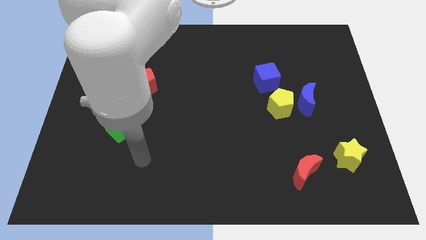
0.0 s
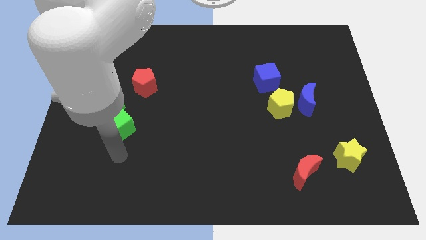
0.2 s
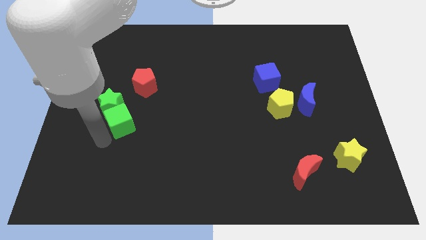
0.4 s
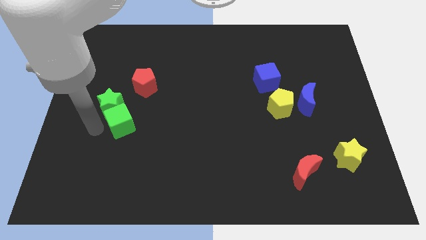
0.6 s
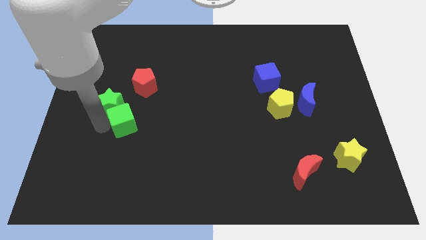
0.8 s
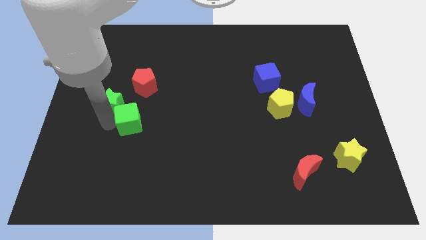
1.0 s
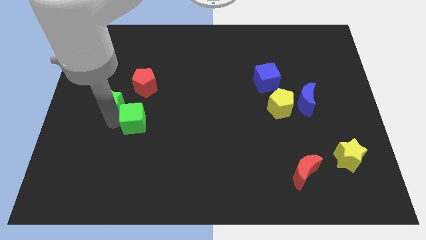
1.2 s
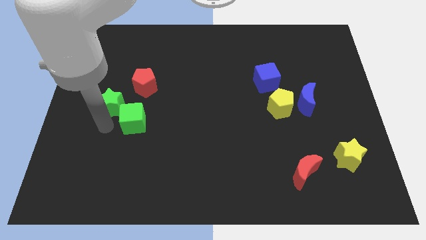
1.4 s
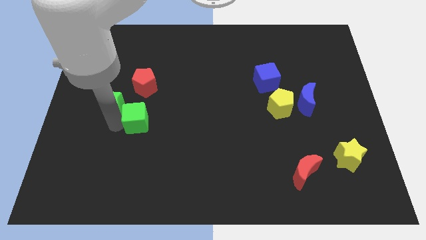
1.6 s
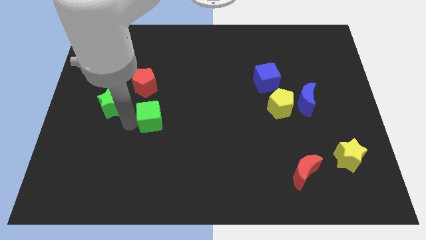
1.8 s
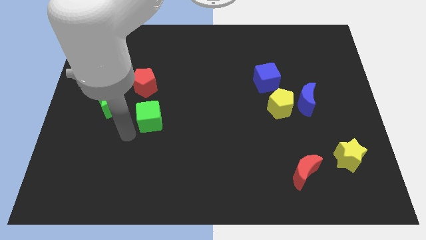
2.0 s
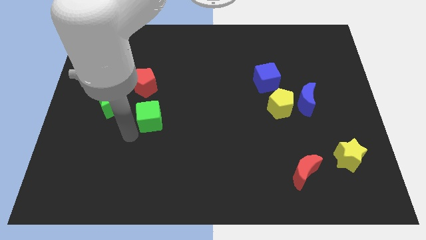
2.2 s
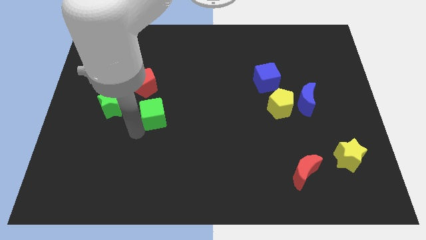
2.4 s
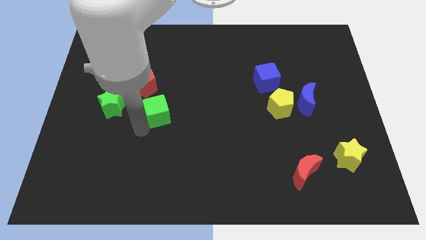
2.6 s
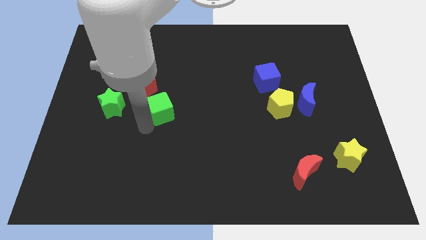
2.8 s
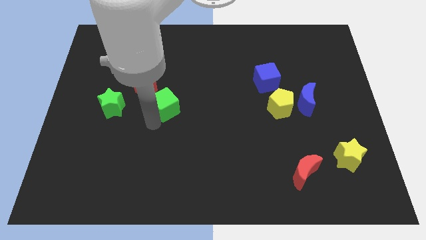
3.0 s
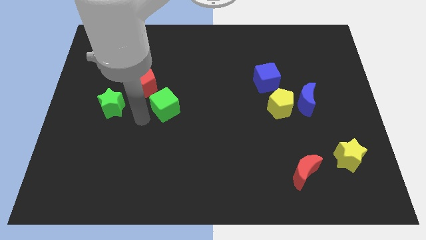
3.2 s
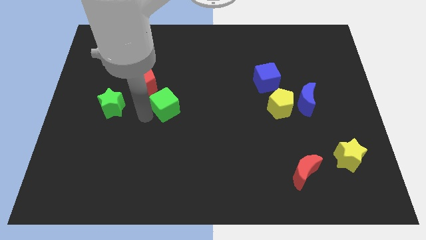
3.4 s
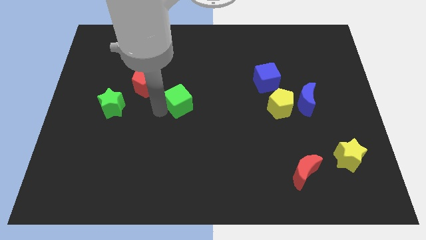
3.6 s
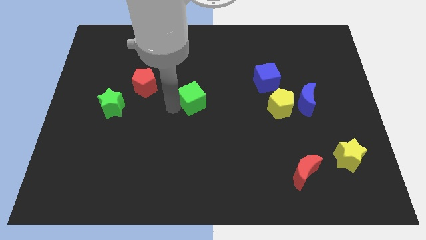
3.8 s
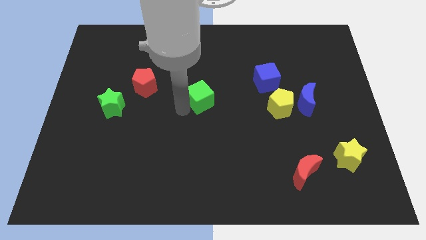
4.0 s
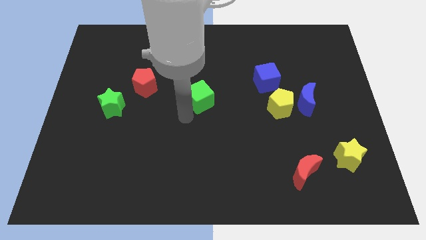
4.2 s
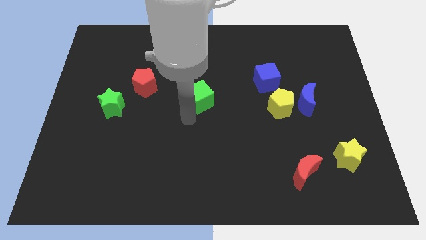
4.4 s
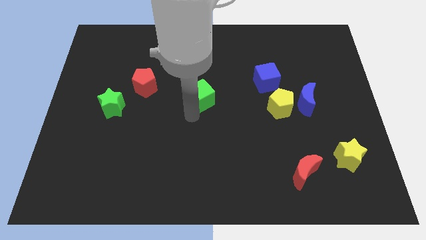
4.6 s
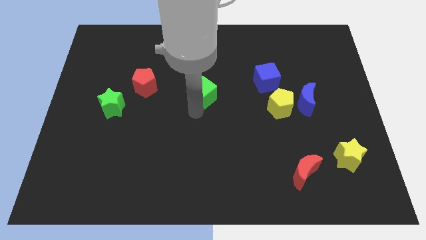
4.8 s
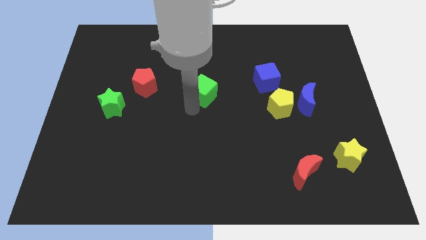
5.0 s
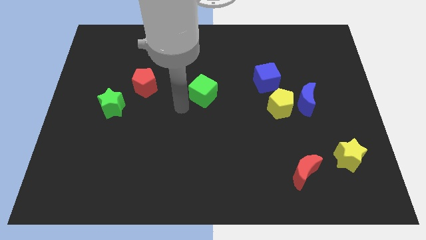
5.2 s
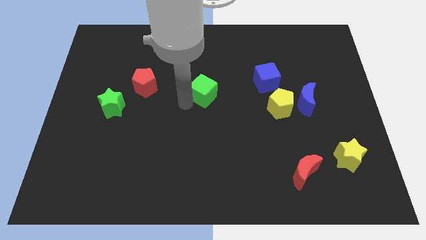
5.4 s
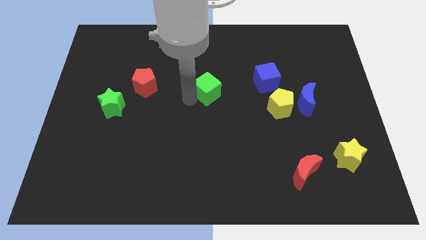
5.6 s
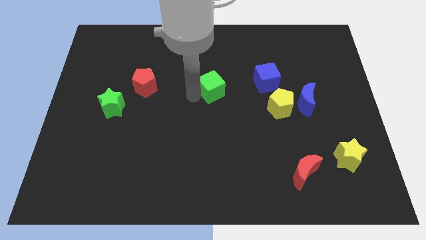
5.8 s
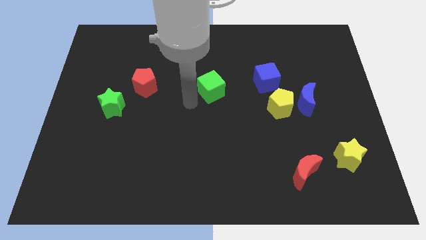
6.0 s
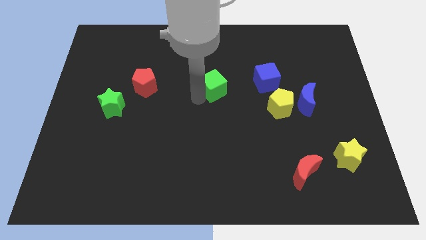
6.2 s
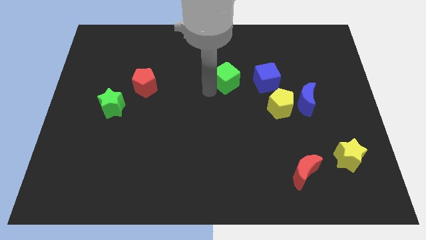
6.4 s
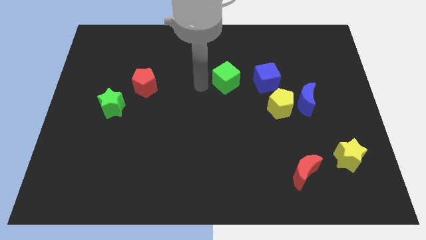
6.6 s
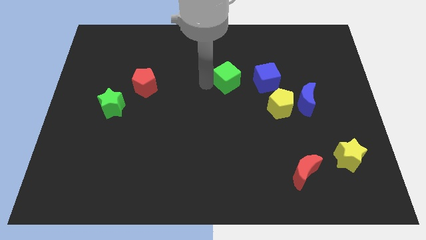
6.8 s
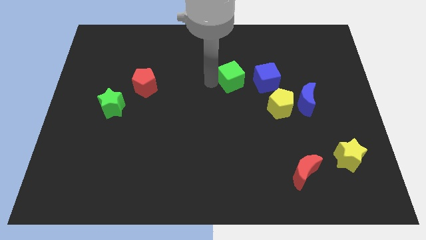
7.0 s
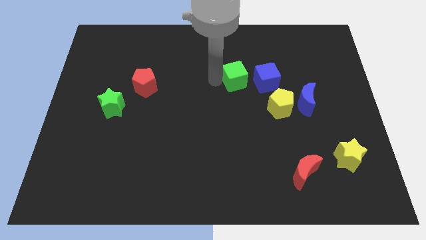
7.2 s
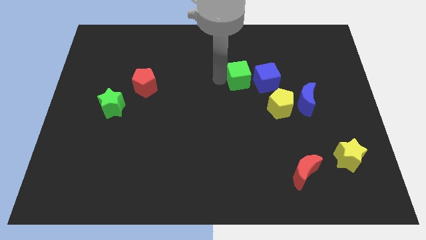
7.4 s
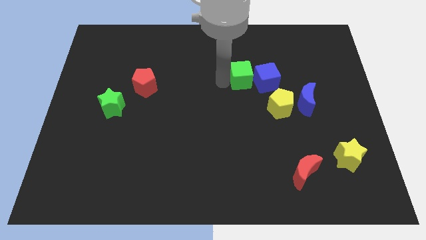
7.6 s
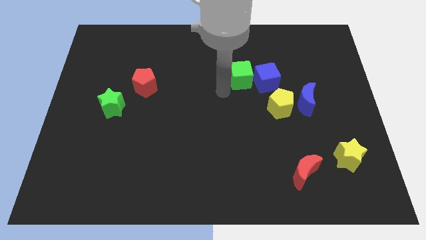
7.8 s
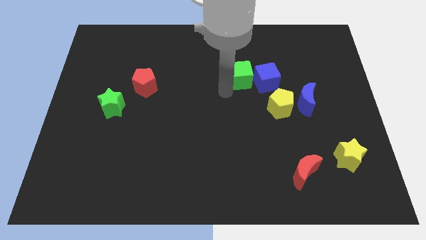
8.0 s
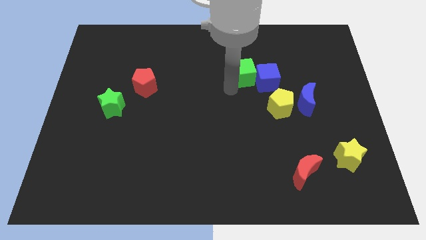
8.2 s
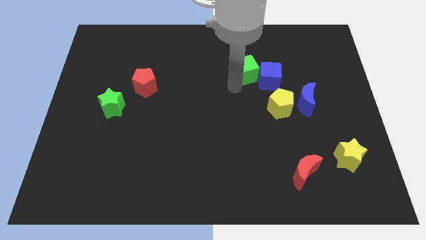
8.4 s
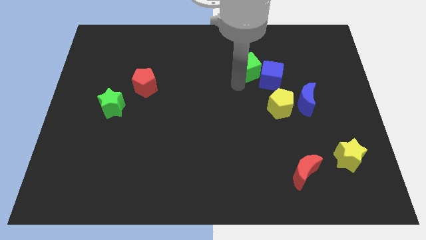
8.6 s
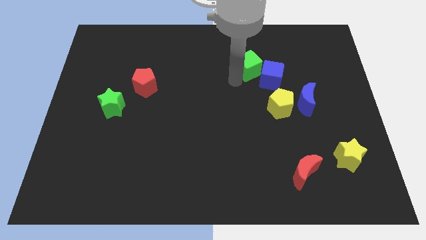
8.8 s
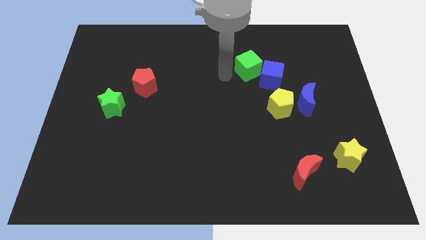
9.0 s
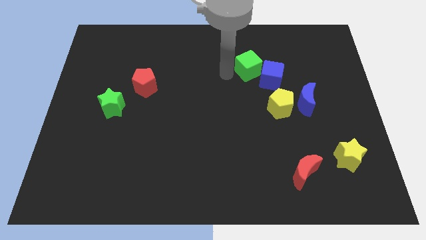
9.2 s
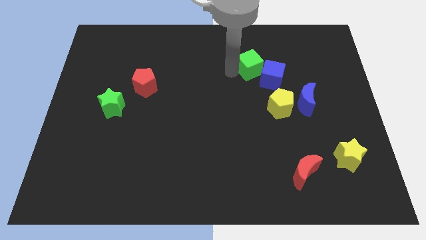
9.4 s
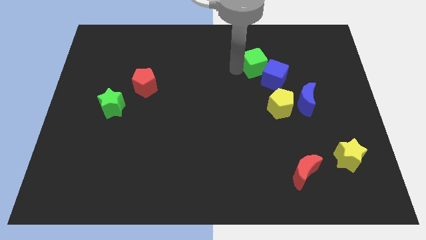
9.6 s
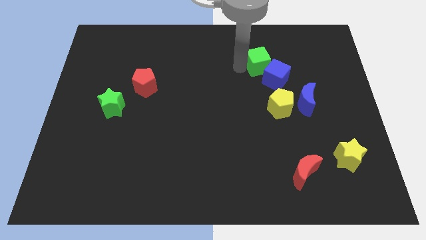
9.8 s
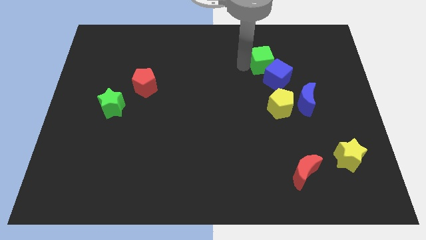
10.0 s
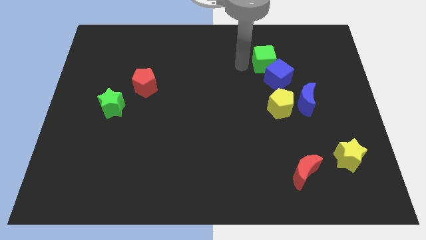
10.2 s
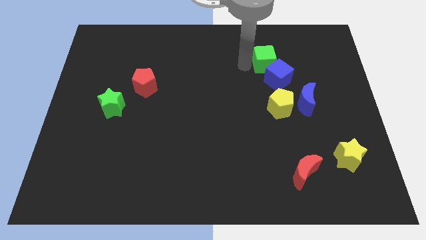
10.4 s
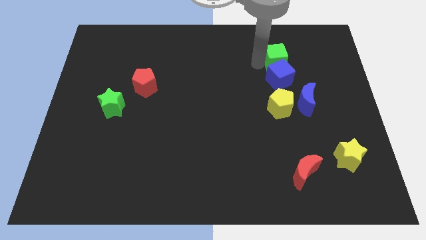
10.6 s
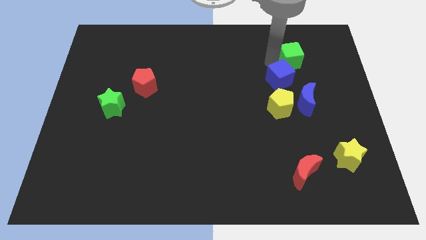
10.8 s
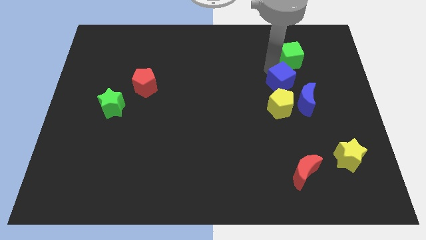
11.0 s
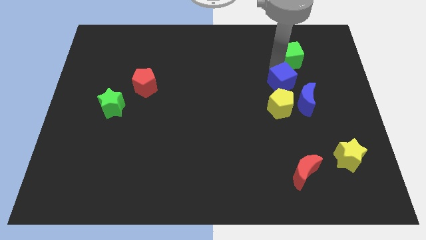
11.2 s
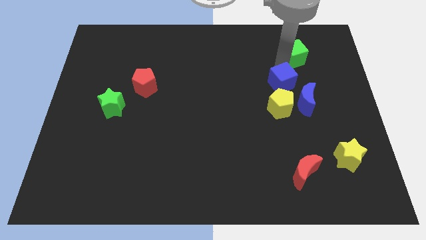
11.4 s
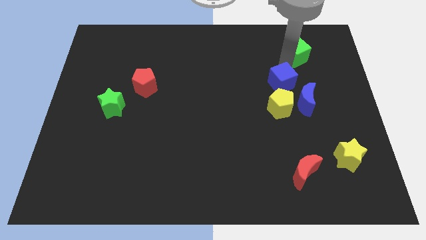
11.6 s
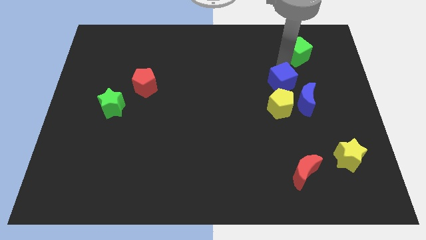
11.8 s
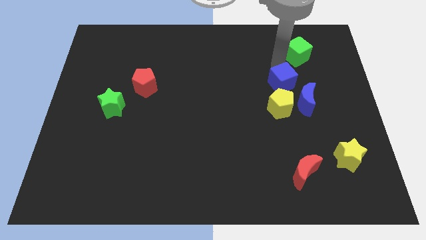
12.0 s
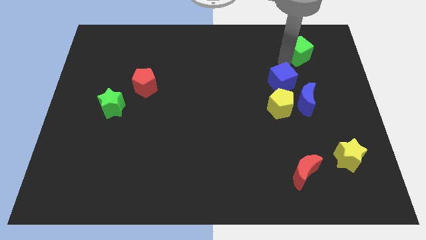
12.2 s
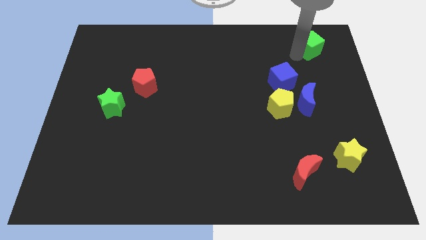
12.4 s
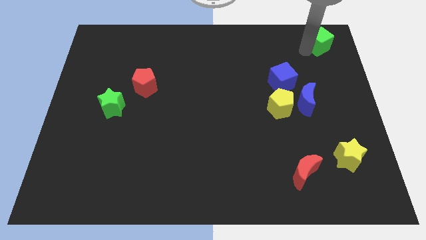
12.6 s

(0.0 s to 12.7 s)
move the green cube to the upper right corner

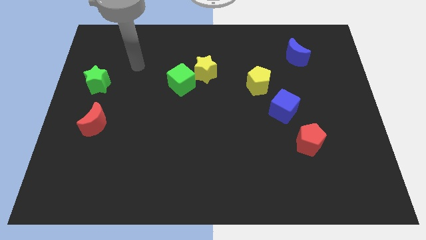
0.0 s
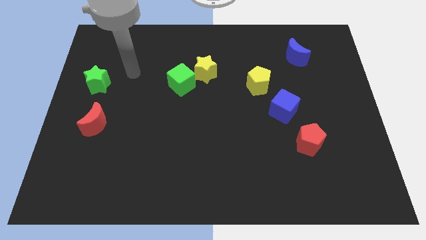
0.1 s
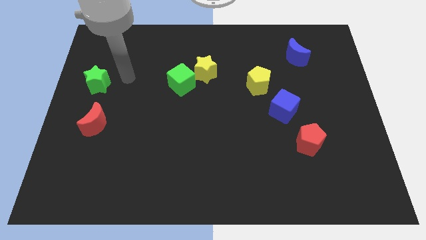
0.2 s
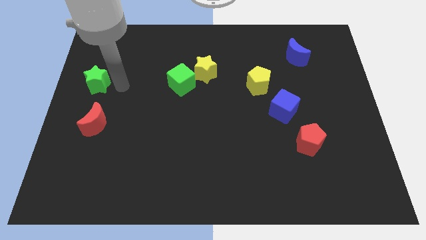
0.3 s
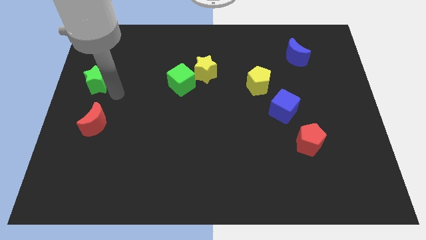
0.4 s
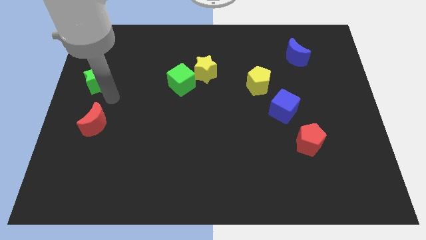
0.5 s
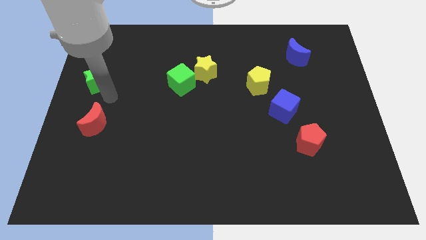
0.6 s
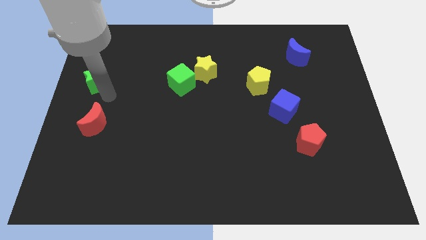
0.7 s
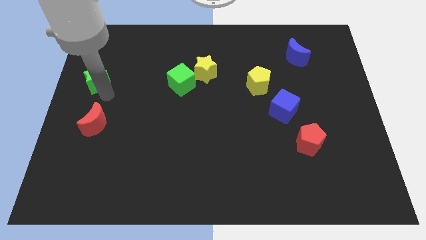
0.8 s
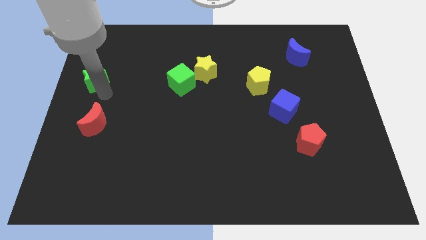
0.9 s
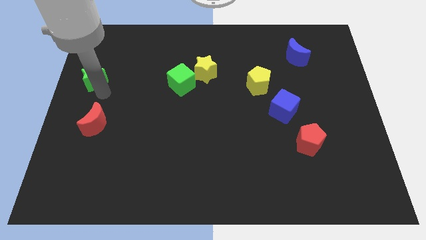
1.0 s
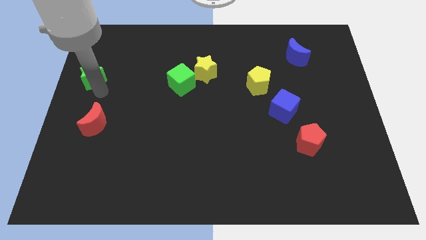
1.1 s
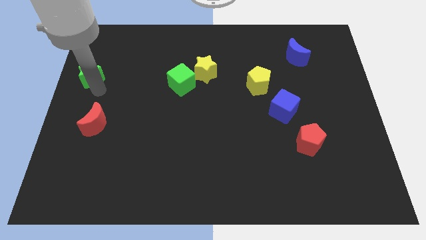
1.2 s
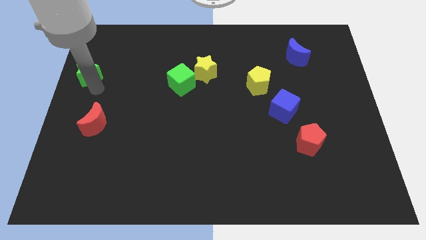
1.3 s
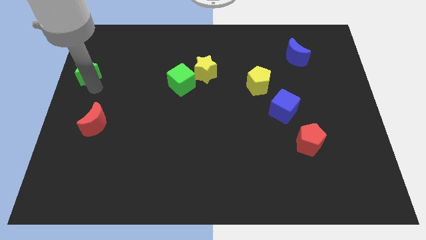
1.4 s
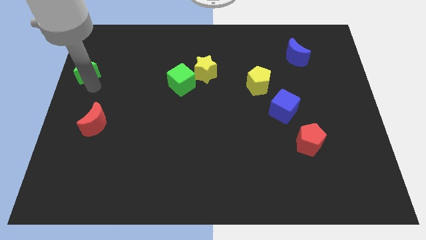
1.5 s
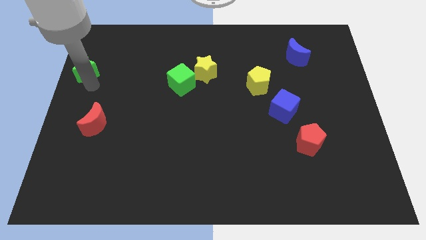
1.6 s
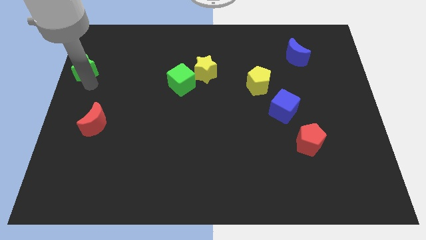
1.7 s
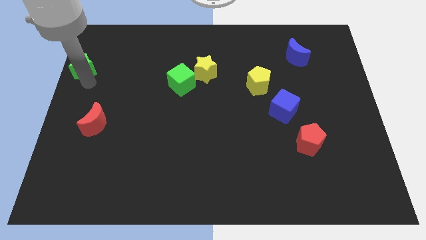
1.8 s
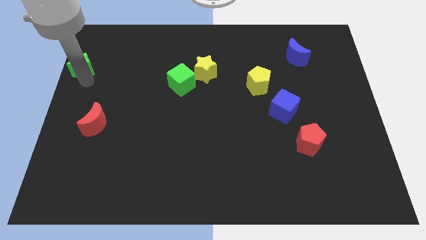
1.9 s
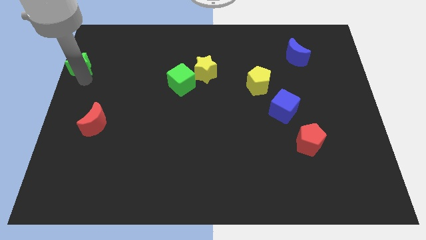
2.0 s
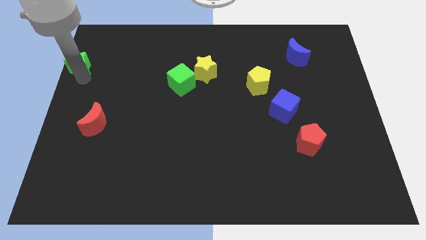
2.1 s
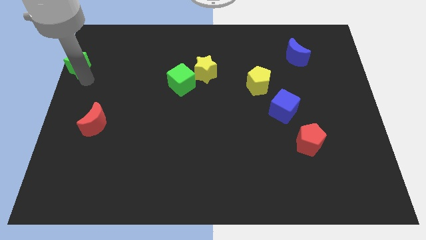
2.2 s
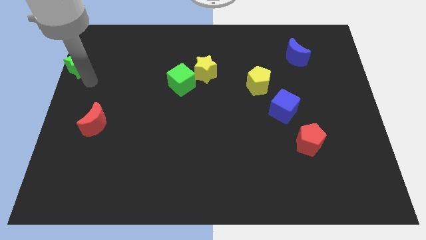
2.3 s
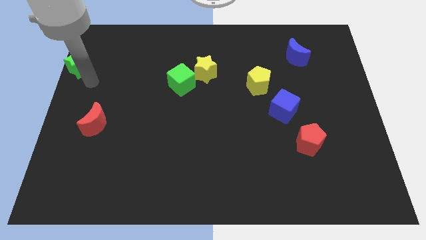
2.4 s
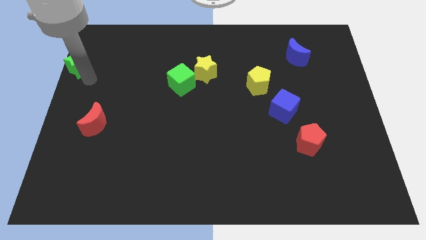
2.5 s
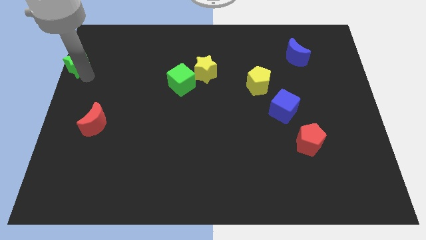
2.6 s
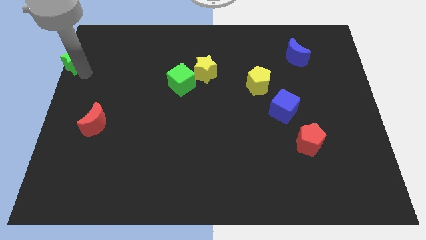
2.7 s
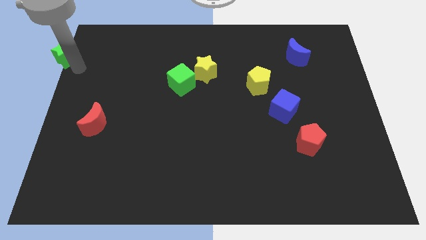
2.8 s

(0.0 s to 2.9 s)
slide the green star to the upper left corner
